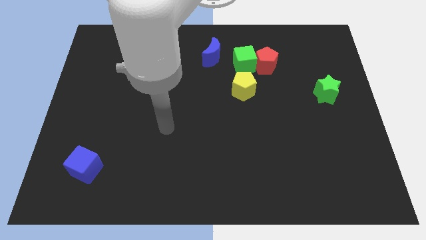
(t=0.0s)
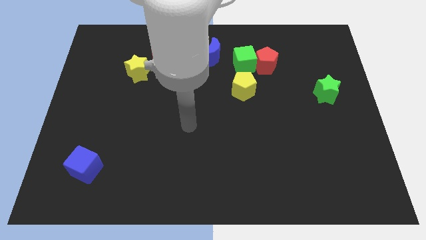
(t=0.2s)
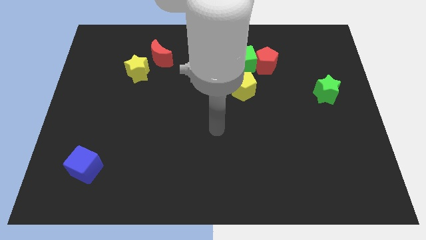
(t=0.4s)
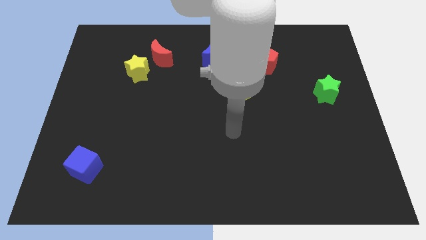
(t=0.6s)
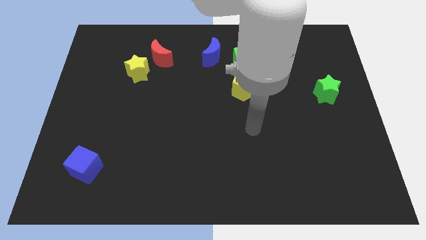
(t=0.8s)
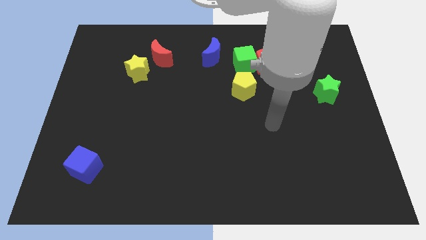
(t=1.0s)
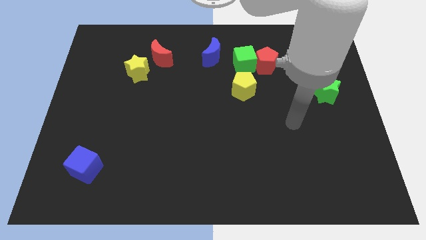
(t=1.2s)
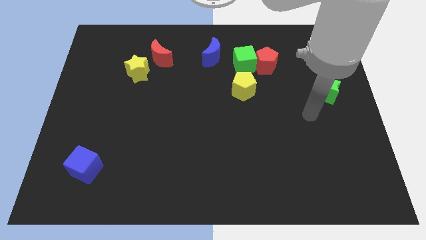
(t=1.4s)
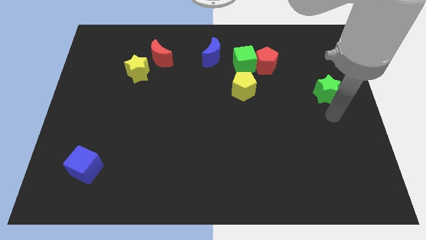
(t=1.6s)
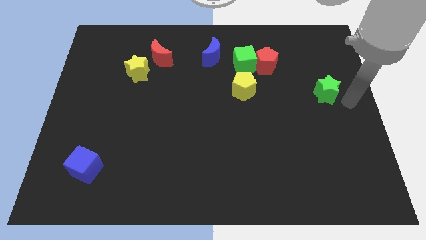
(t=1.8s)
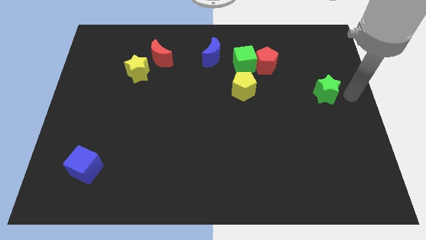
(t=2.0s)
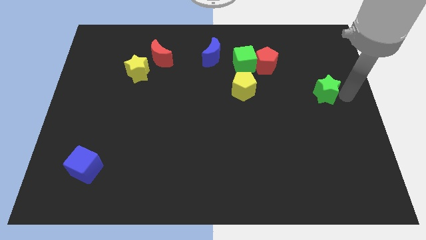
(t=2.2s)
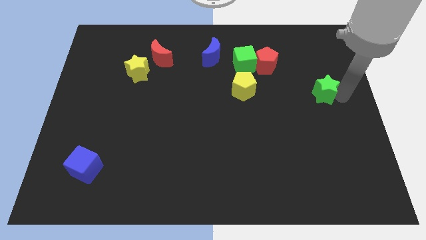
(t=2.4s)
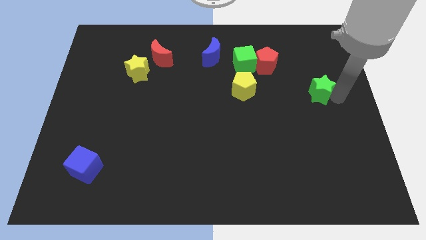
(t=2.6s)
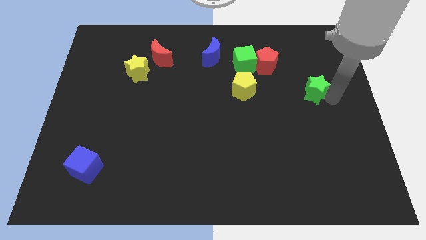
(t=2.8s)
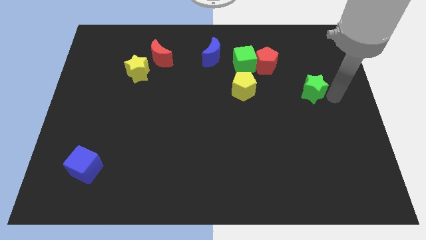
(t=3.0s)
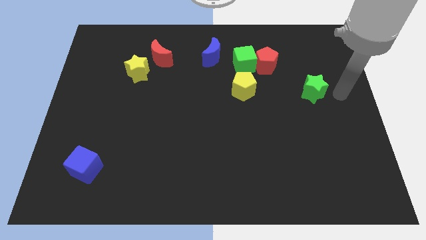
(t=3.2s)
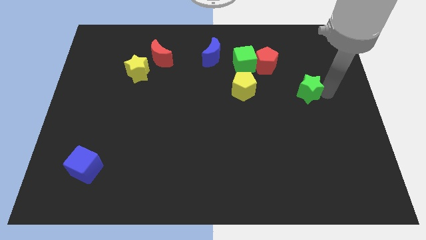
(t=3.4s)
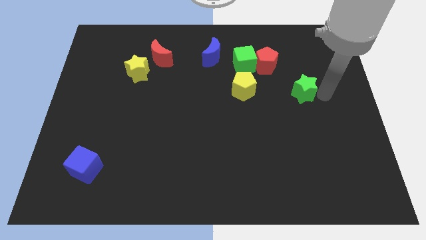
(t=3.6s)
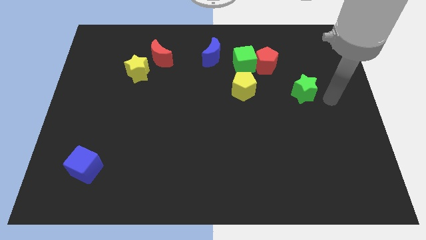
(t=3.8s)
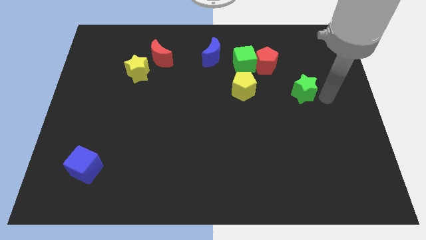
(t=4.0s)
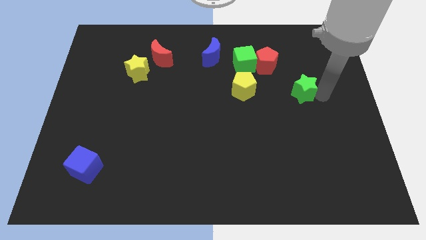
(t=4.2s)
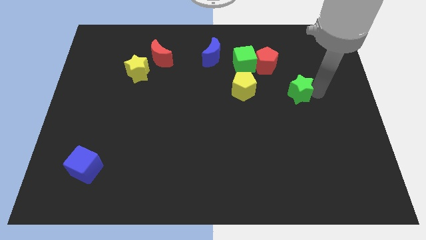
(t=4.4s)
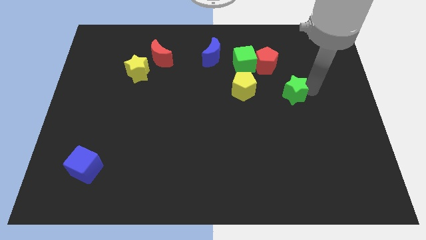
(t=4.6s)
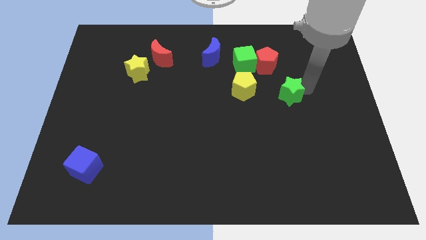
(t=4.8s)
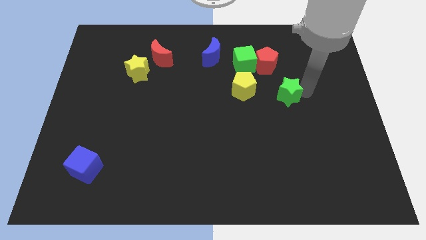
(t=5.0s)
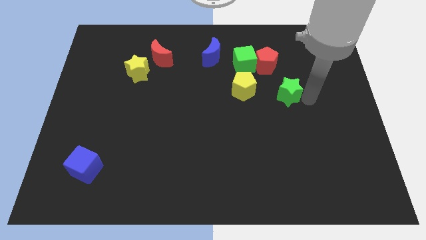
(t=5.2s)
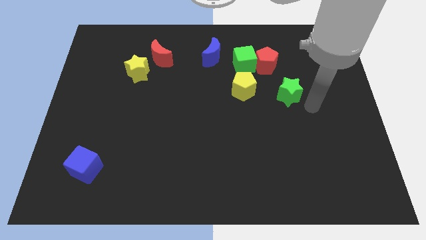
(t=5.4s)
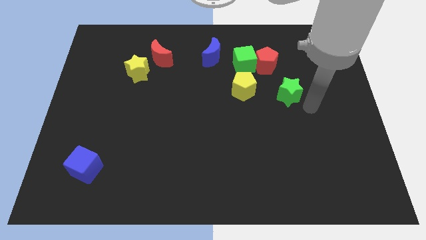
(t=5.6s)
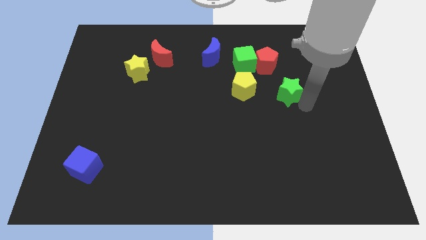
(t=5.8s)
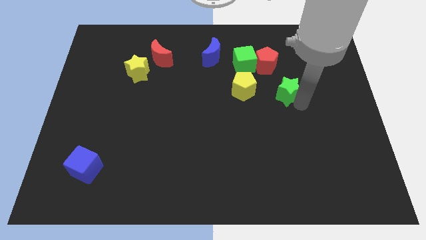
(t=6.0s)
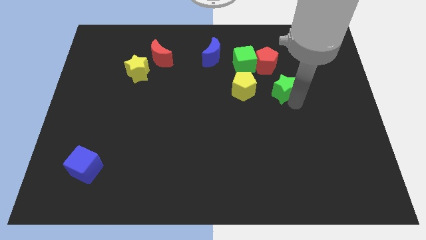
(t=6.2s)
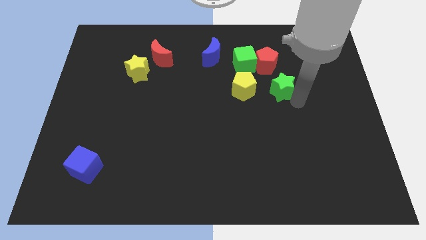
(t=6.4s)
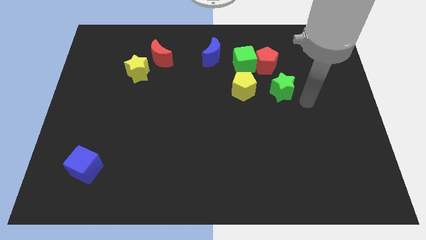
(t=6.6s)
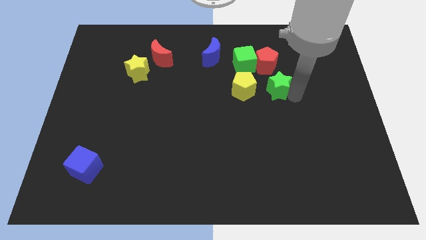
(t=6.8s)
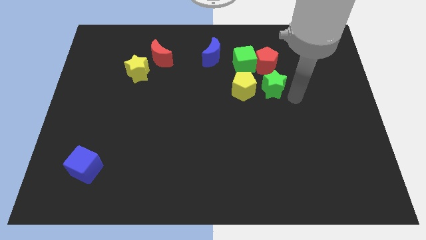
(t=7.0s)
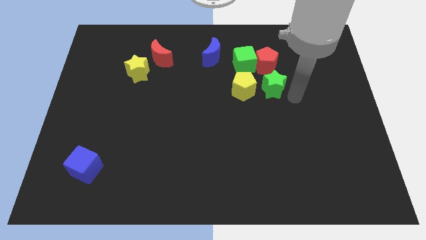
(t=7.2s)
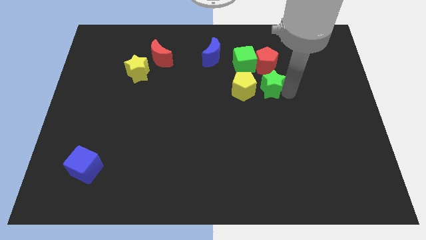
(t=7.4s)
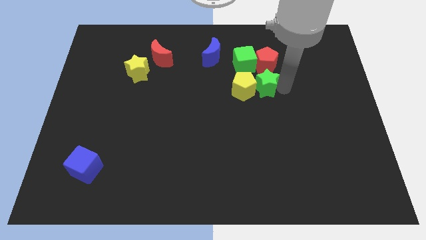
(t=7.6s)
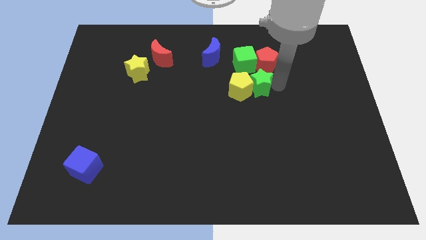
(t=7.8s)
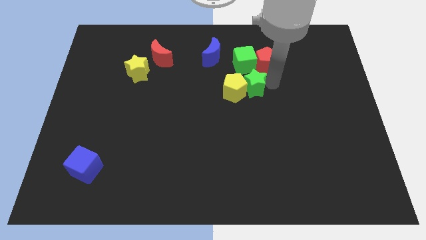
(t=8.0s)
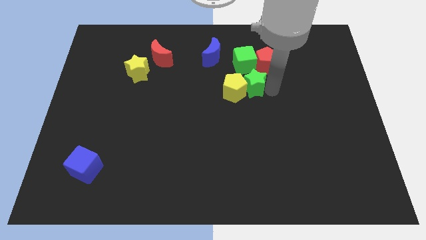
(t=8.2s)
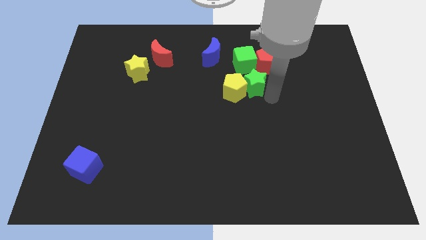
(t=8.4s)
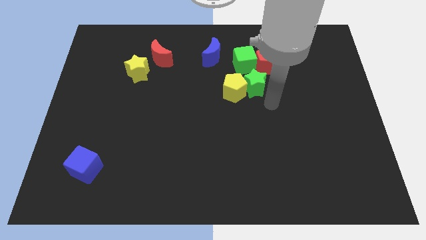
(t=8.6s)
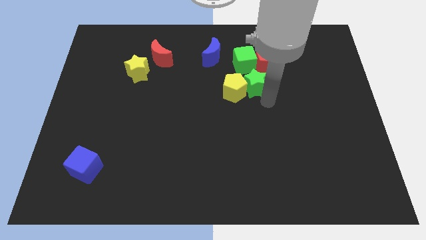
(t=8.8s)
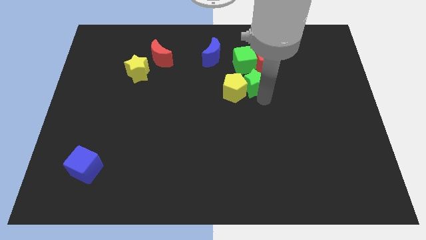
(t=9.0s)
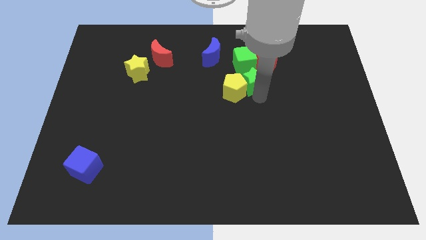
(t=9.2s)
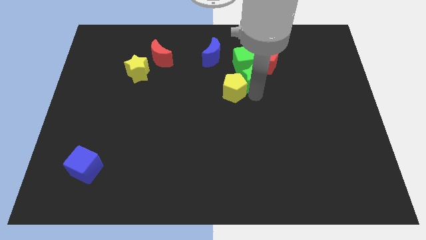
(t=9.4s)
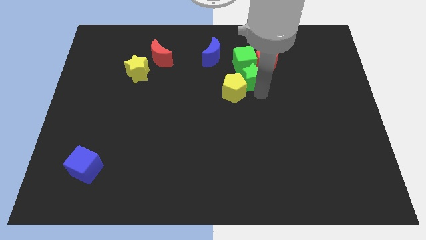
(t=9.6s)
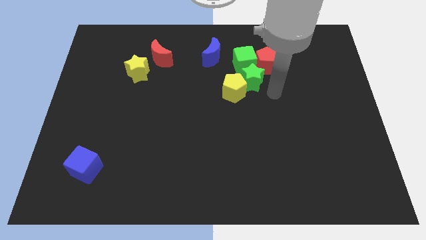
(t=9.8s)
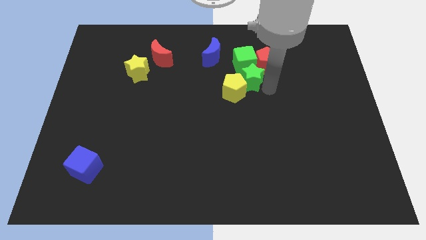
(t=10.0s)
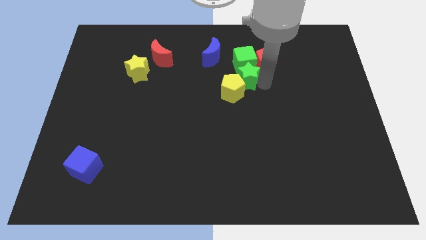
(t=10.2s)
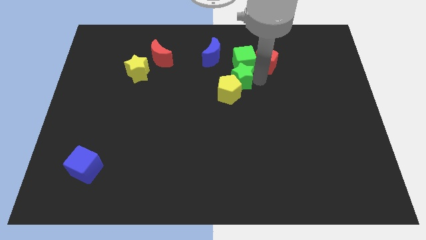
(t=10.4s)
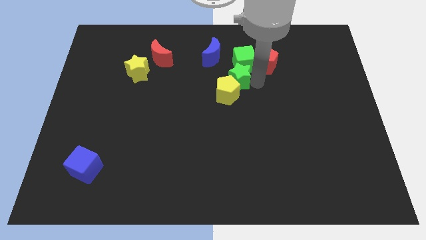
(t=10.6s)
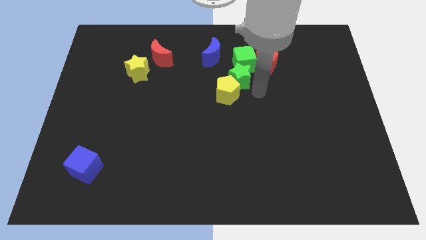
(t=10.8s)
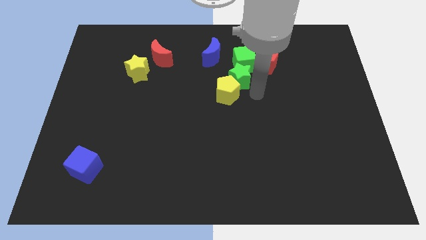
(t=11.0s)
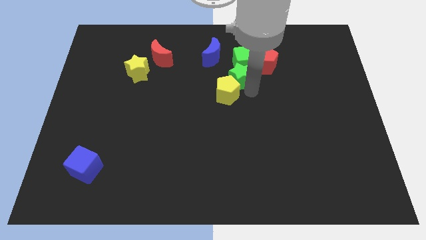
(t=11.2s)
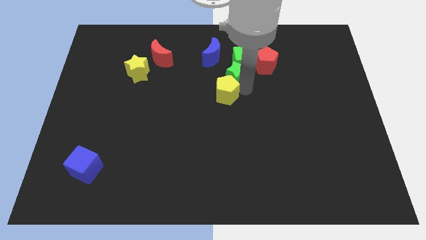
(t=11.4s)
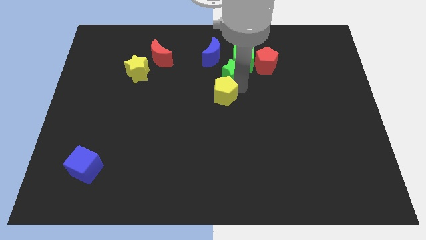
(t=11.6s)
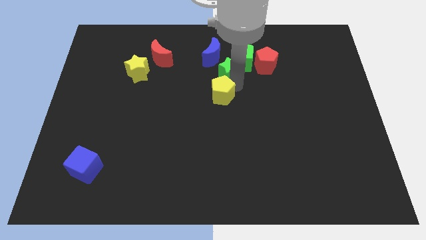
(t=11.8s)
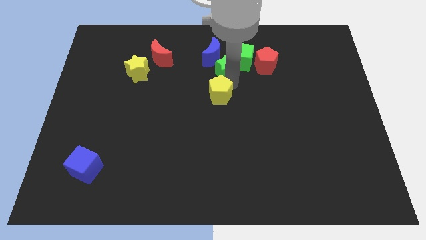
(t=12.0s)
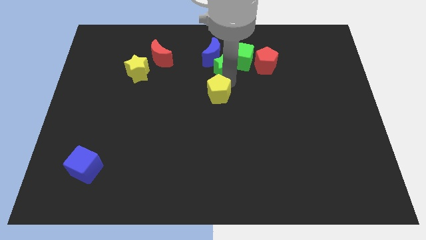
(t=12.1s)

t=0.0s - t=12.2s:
move the green star next to the blue moon

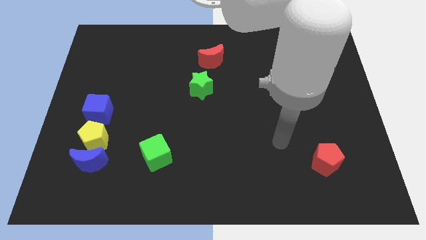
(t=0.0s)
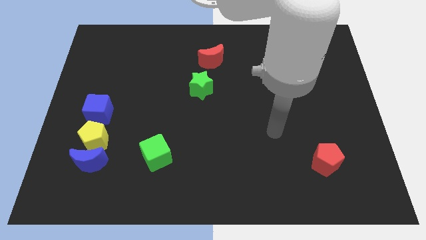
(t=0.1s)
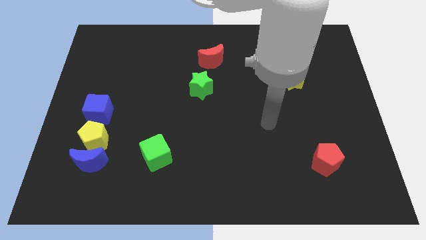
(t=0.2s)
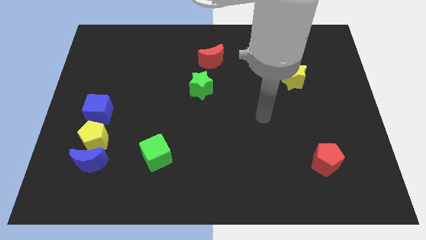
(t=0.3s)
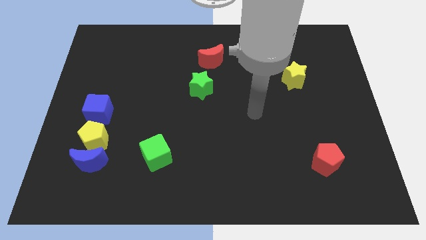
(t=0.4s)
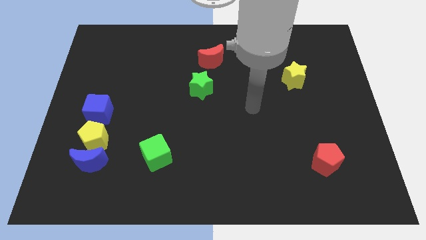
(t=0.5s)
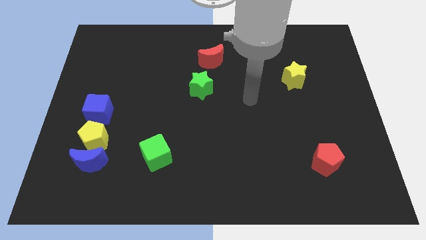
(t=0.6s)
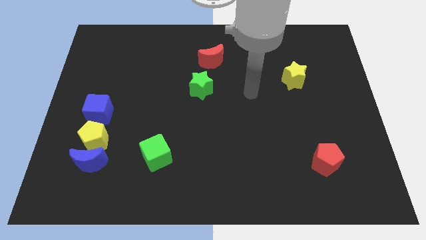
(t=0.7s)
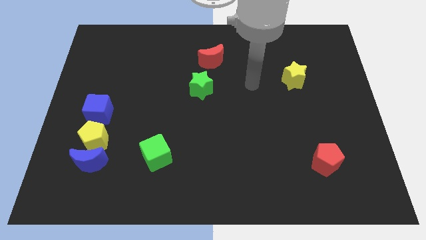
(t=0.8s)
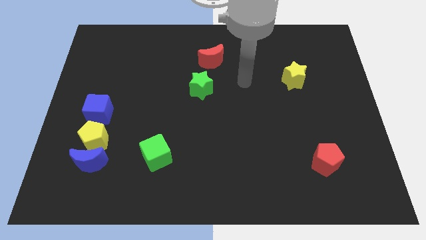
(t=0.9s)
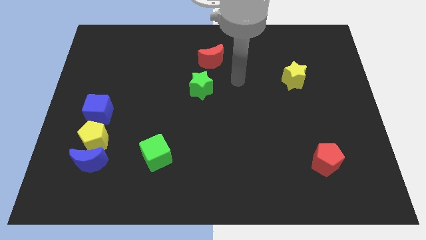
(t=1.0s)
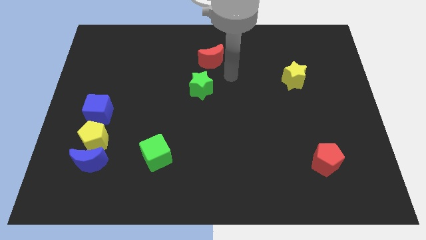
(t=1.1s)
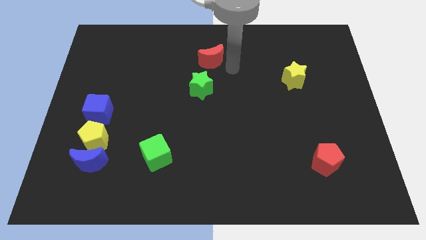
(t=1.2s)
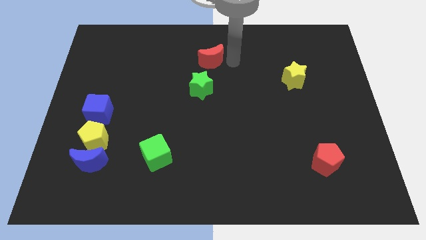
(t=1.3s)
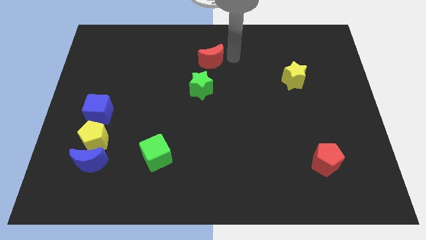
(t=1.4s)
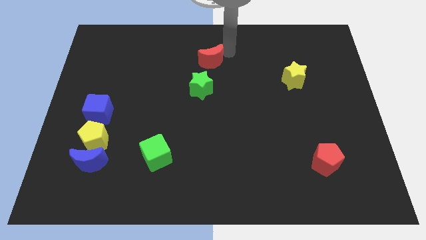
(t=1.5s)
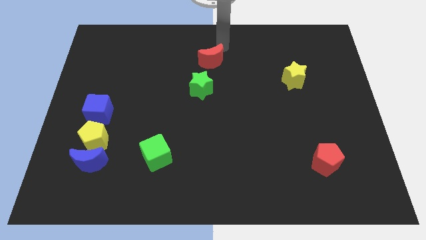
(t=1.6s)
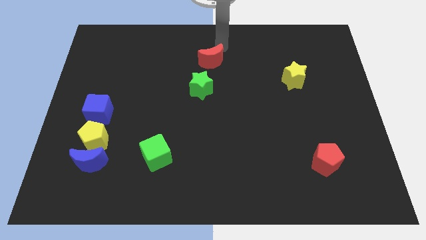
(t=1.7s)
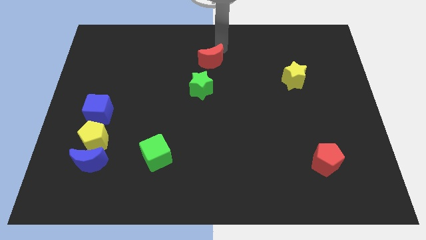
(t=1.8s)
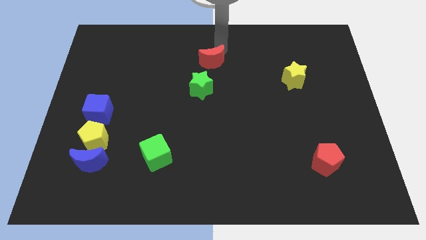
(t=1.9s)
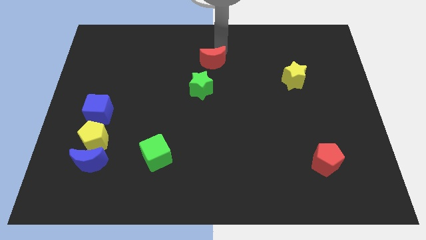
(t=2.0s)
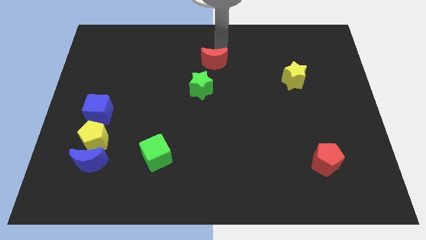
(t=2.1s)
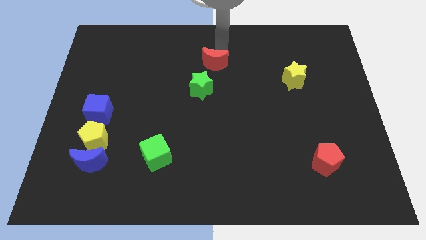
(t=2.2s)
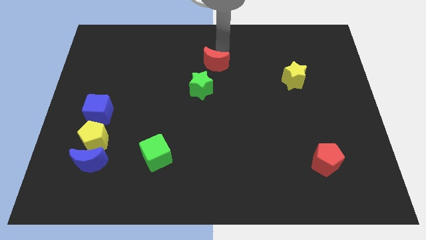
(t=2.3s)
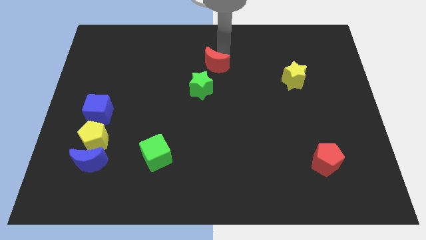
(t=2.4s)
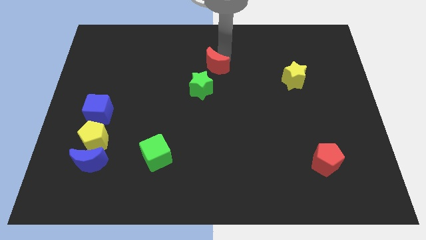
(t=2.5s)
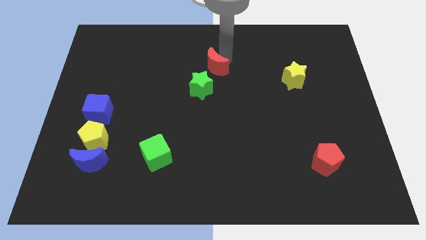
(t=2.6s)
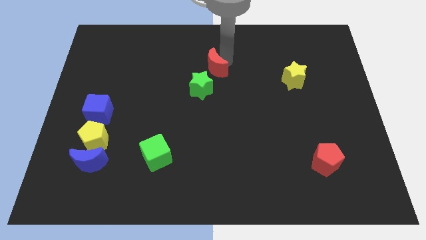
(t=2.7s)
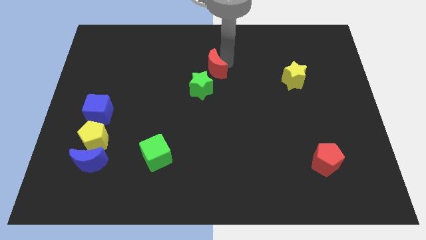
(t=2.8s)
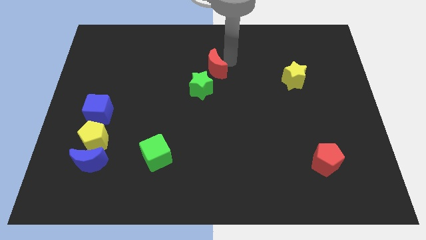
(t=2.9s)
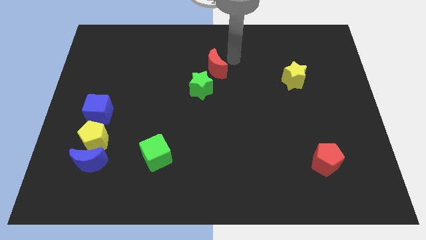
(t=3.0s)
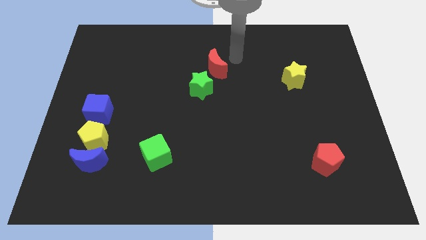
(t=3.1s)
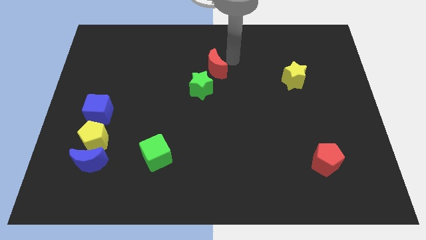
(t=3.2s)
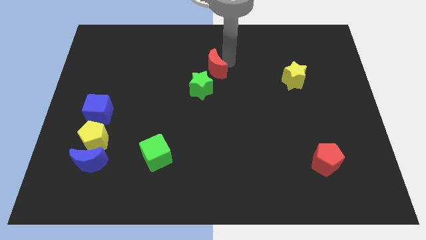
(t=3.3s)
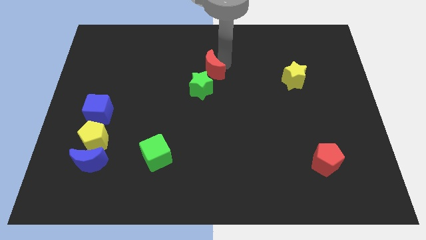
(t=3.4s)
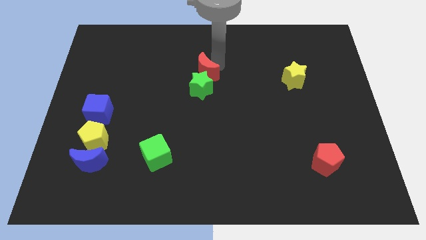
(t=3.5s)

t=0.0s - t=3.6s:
put the red moon to the green star
